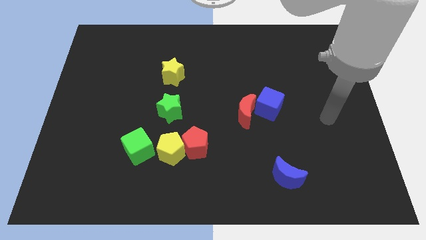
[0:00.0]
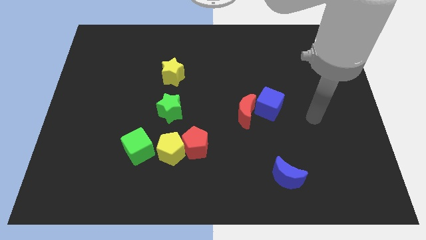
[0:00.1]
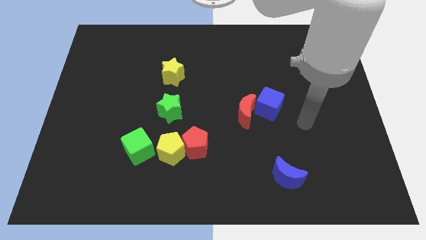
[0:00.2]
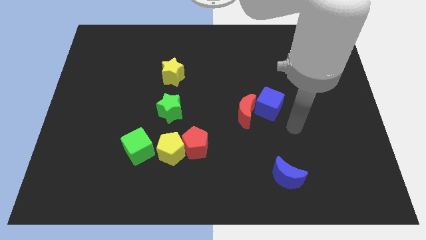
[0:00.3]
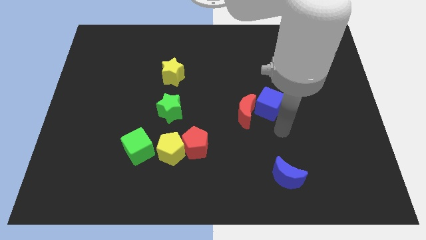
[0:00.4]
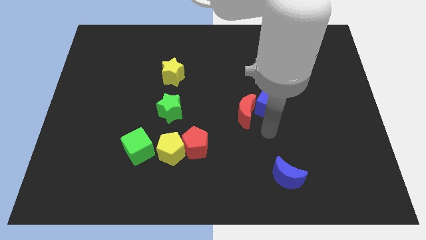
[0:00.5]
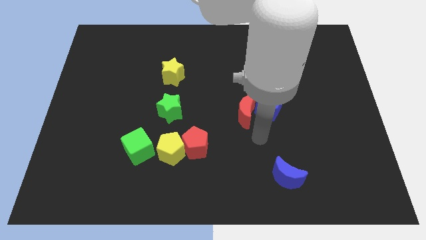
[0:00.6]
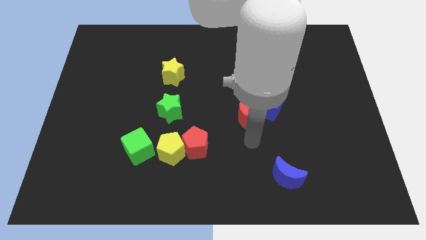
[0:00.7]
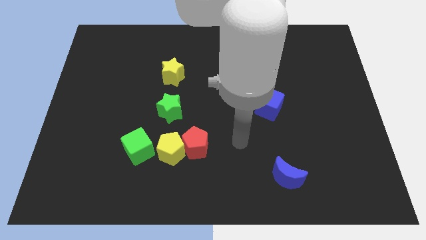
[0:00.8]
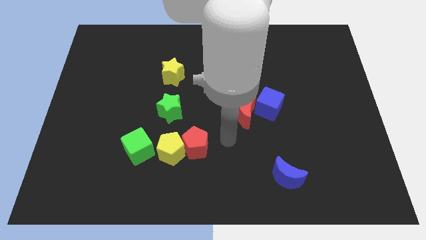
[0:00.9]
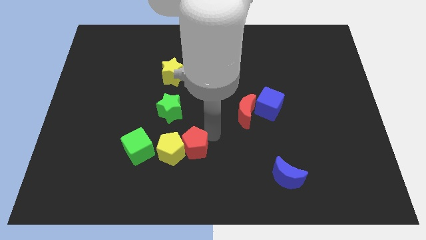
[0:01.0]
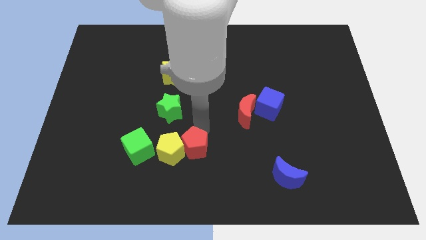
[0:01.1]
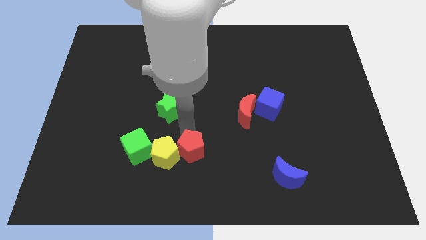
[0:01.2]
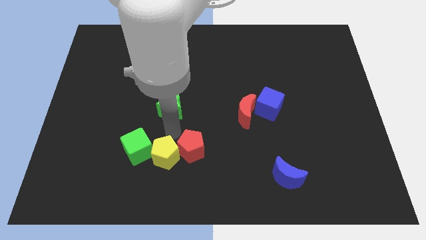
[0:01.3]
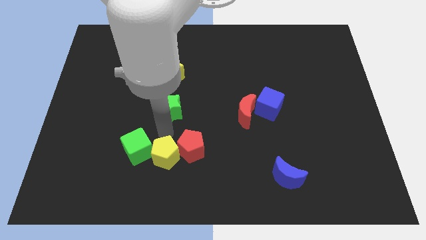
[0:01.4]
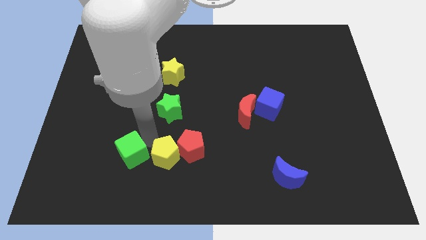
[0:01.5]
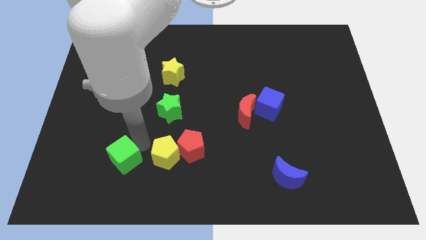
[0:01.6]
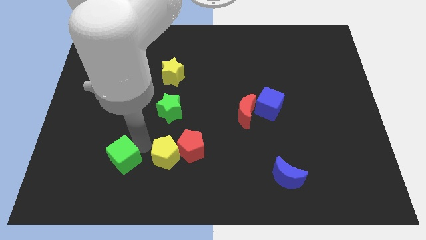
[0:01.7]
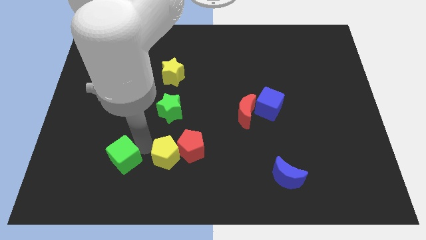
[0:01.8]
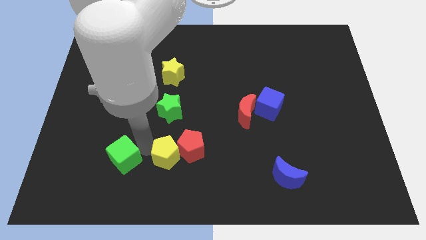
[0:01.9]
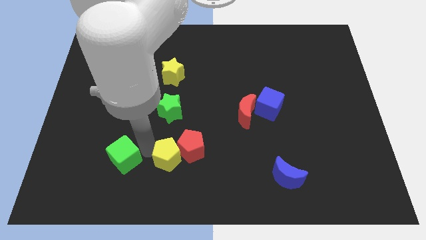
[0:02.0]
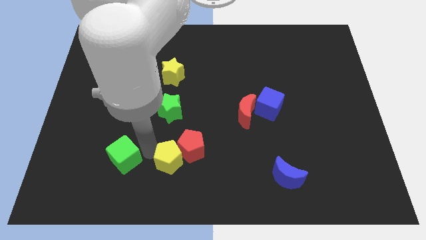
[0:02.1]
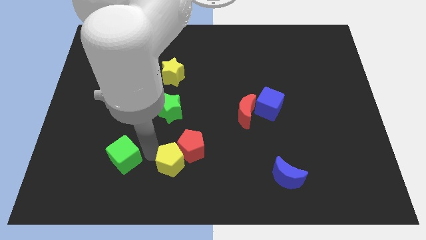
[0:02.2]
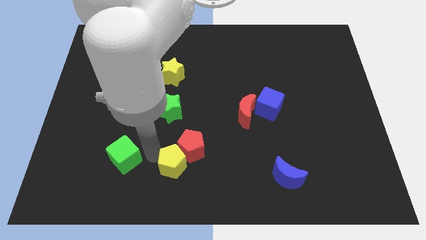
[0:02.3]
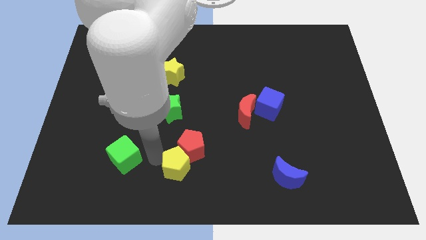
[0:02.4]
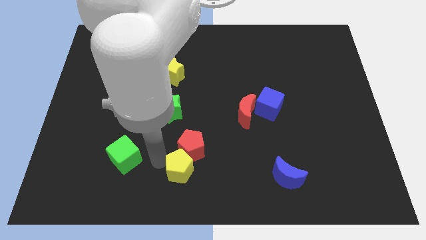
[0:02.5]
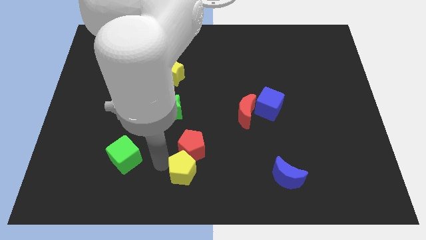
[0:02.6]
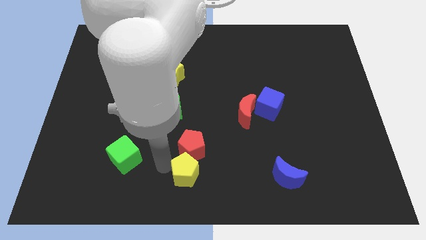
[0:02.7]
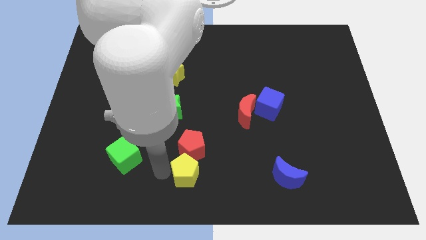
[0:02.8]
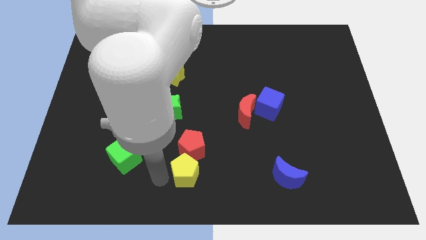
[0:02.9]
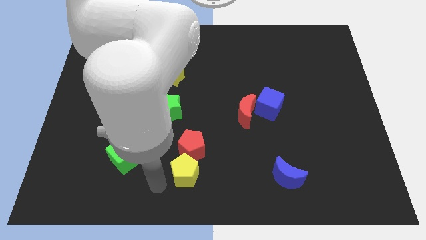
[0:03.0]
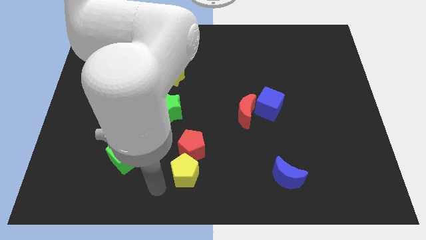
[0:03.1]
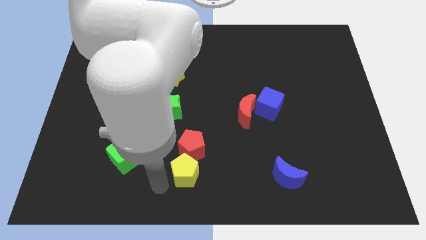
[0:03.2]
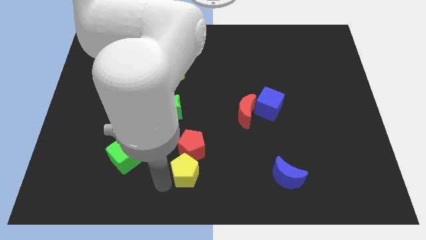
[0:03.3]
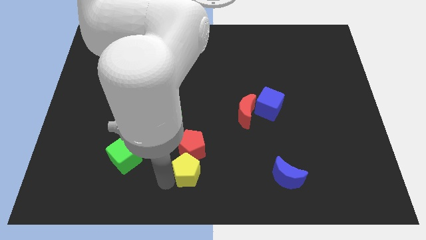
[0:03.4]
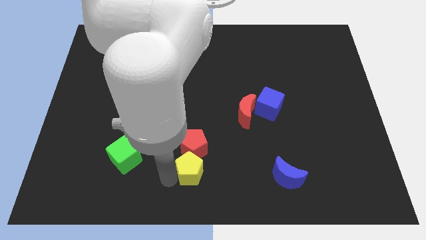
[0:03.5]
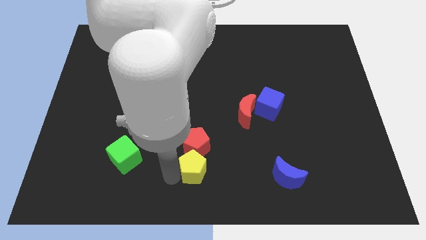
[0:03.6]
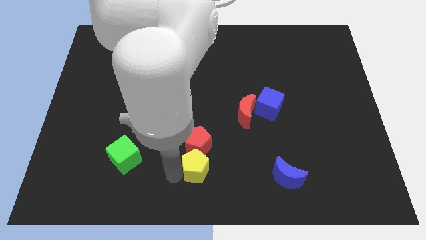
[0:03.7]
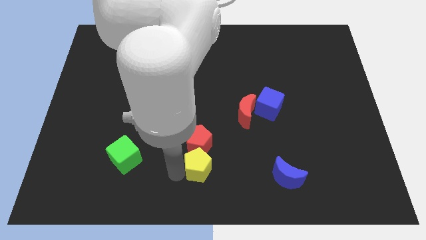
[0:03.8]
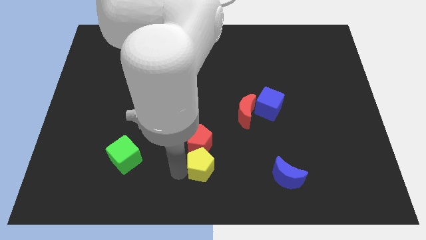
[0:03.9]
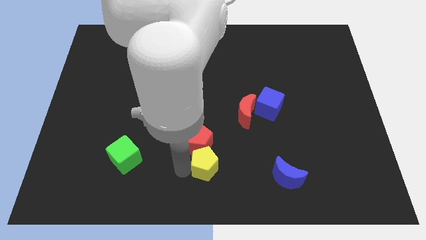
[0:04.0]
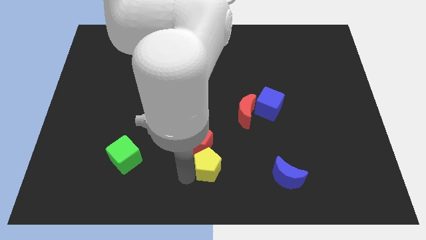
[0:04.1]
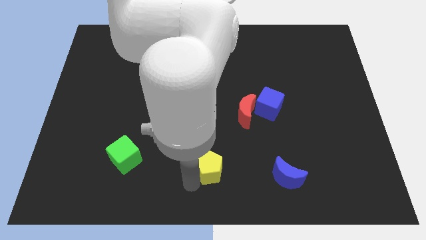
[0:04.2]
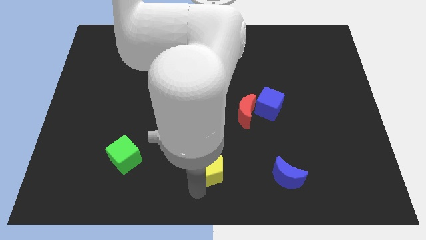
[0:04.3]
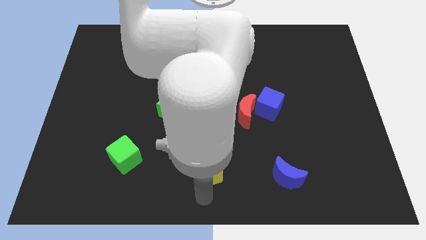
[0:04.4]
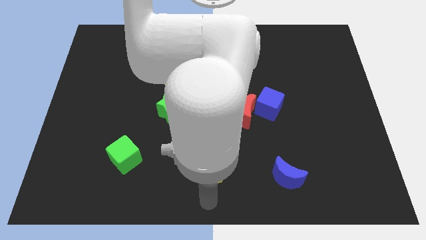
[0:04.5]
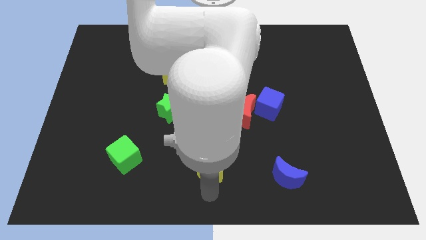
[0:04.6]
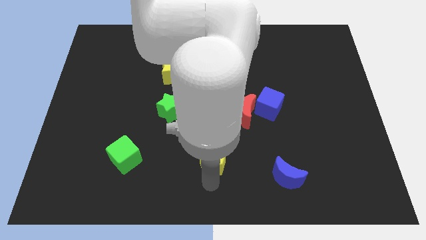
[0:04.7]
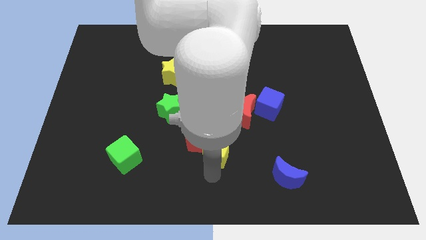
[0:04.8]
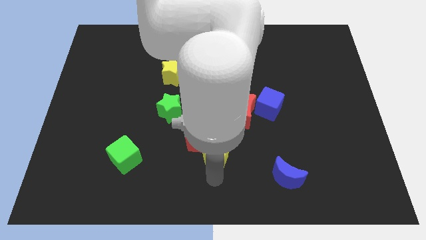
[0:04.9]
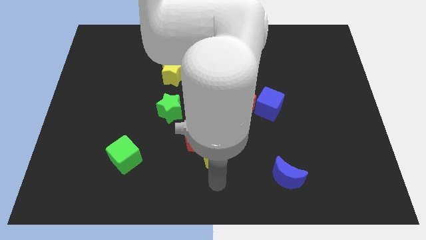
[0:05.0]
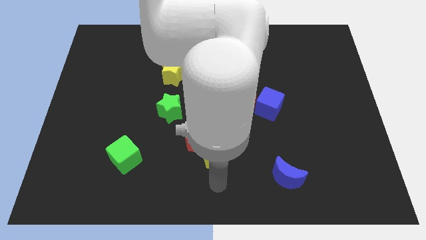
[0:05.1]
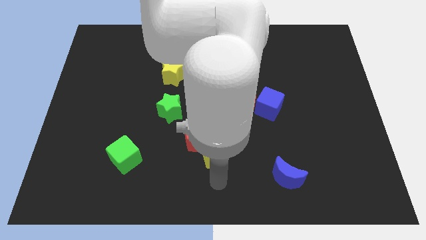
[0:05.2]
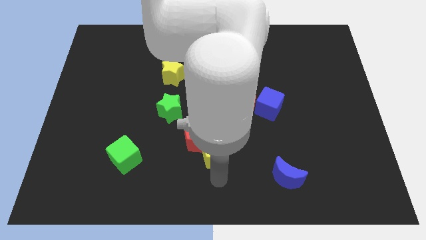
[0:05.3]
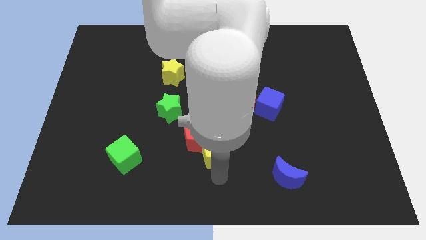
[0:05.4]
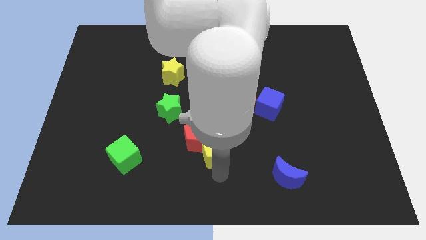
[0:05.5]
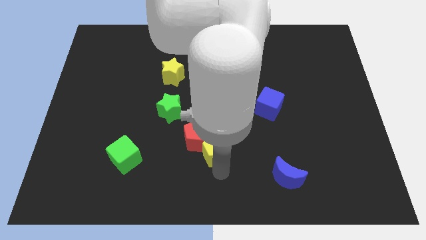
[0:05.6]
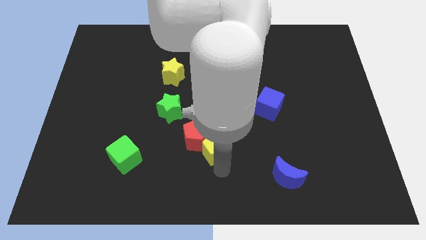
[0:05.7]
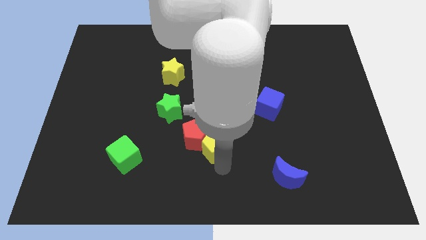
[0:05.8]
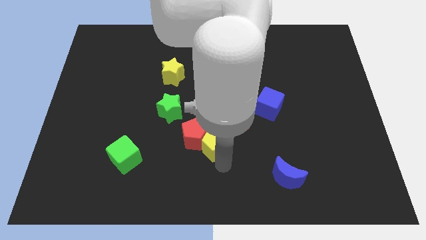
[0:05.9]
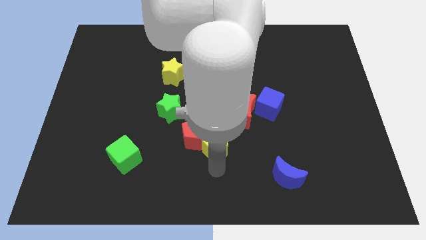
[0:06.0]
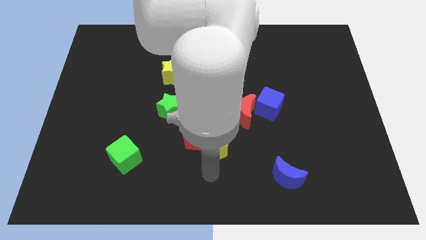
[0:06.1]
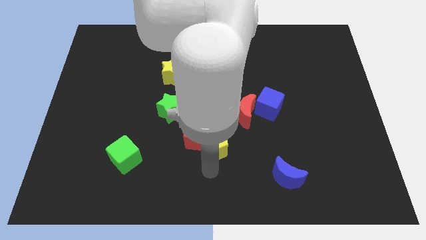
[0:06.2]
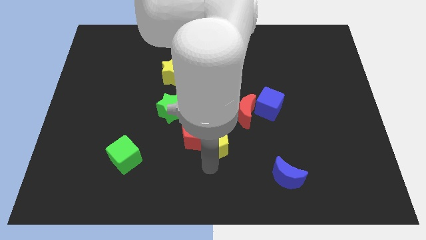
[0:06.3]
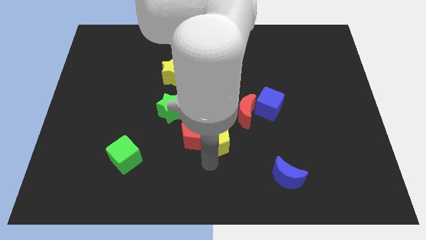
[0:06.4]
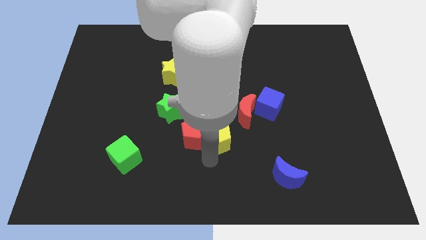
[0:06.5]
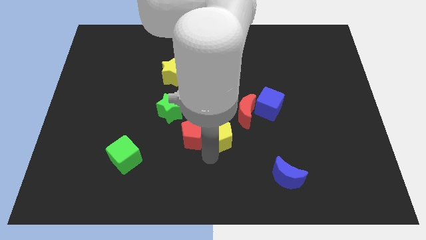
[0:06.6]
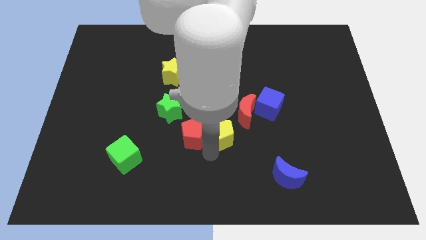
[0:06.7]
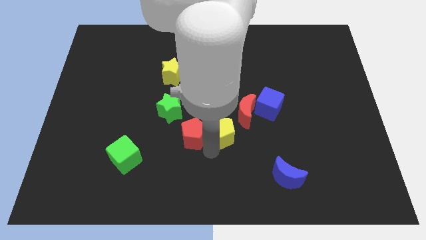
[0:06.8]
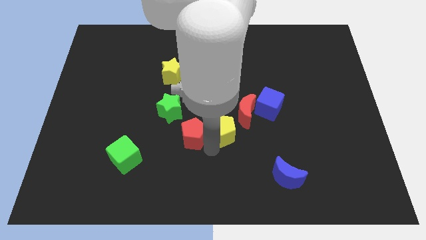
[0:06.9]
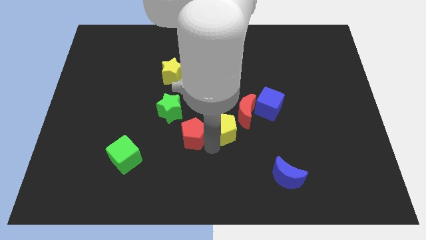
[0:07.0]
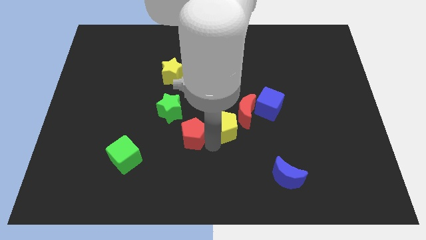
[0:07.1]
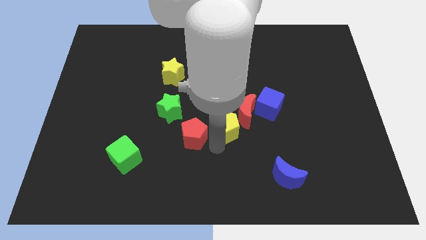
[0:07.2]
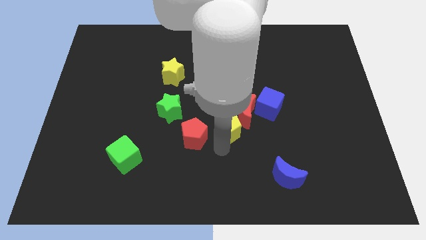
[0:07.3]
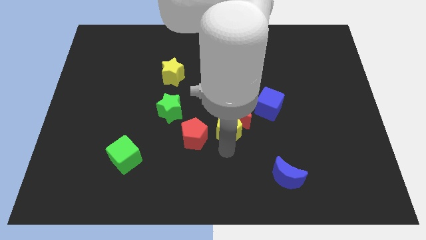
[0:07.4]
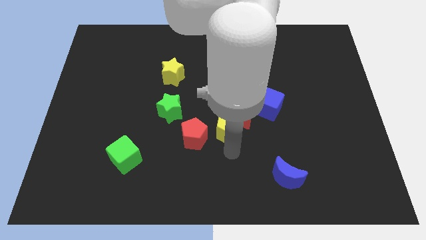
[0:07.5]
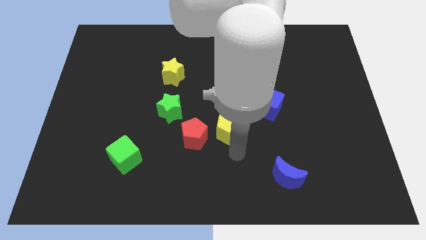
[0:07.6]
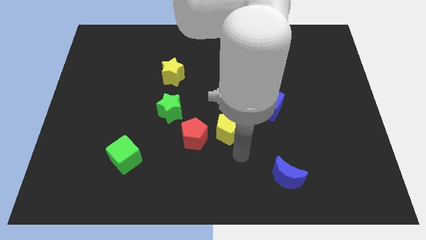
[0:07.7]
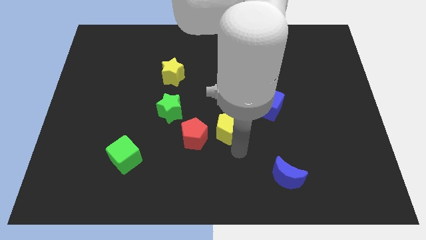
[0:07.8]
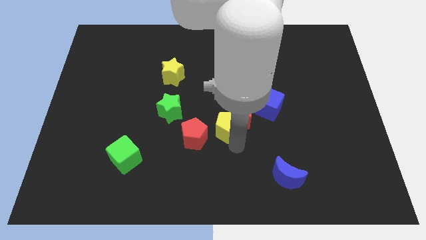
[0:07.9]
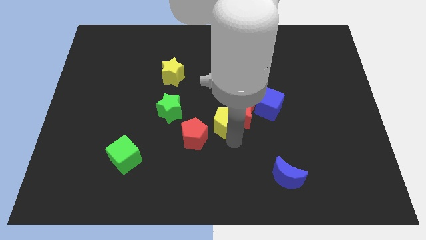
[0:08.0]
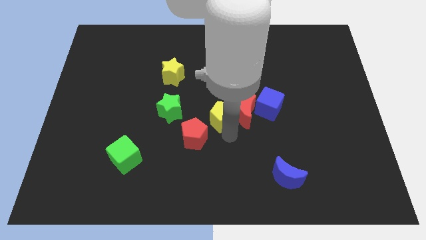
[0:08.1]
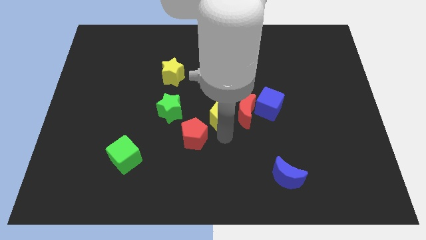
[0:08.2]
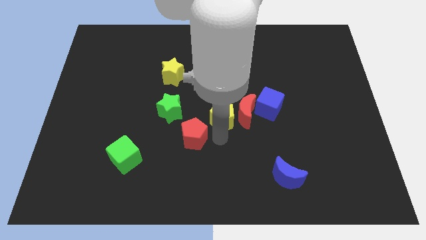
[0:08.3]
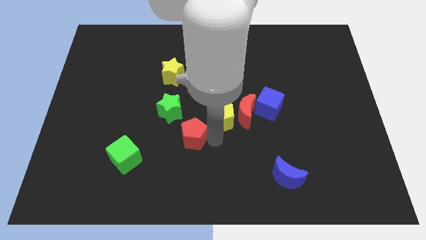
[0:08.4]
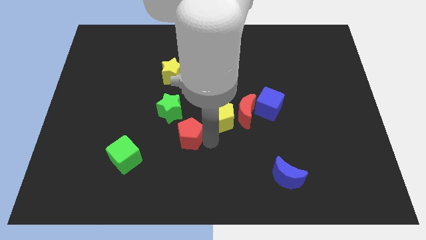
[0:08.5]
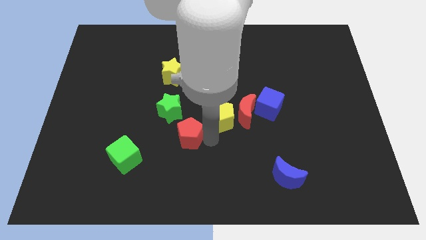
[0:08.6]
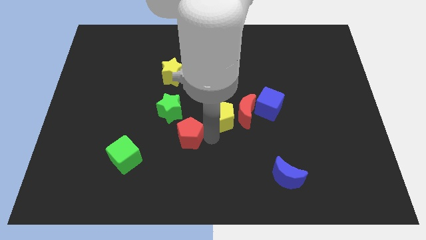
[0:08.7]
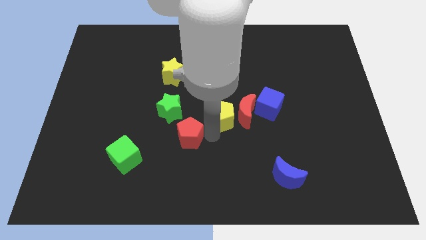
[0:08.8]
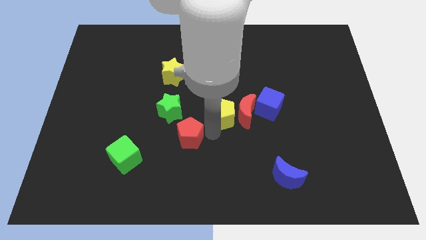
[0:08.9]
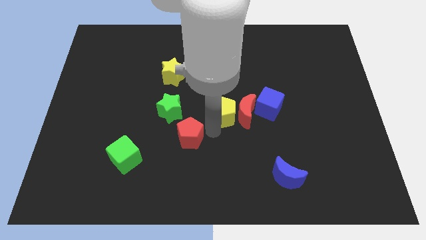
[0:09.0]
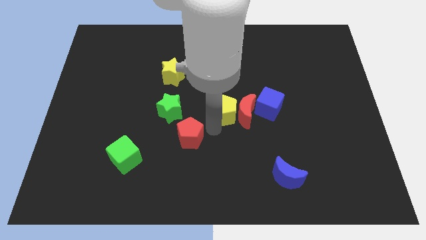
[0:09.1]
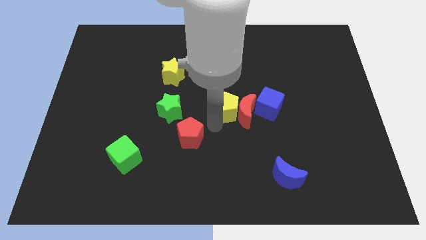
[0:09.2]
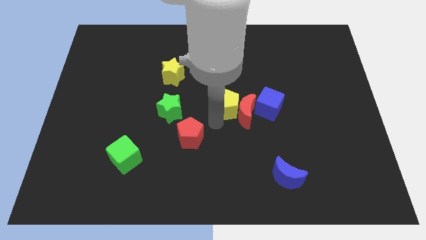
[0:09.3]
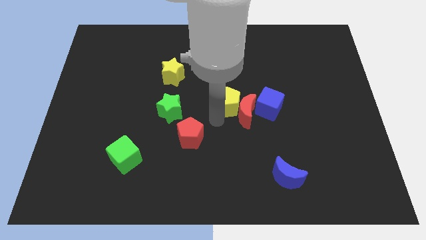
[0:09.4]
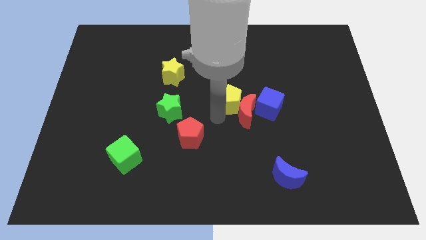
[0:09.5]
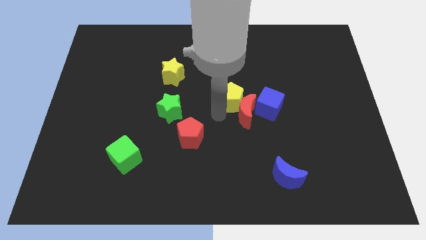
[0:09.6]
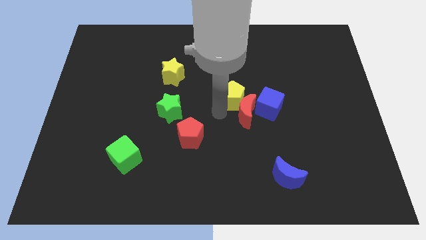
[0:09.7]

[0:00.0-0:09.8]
move the yellow pentagon up and then right
